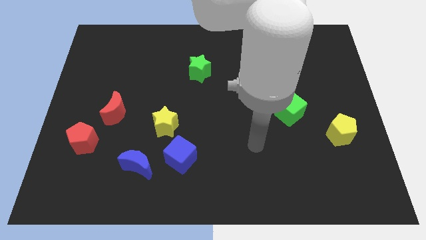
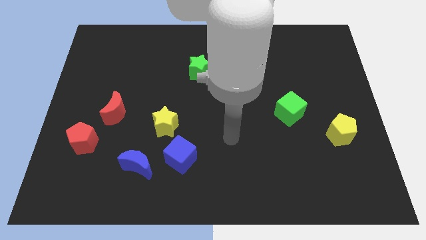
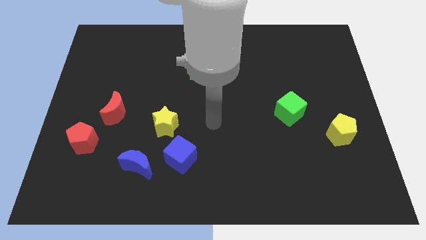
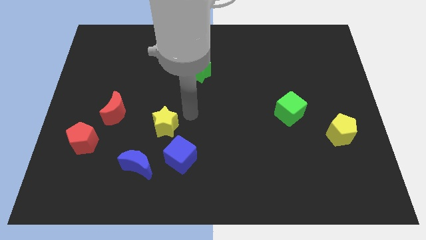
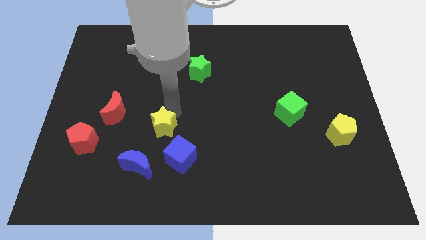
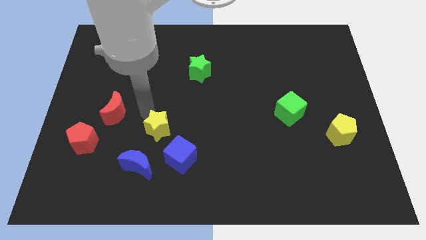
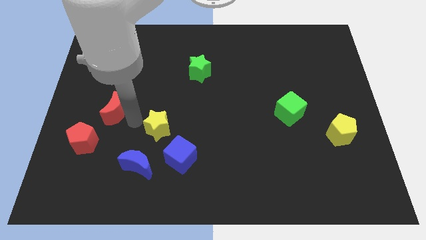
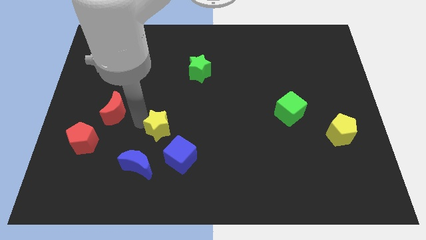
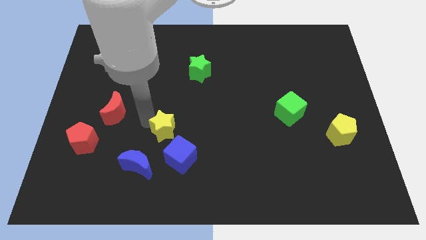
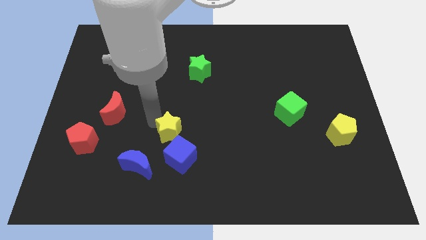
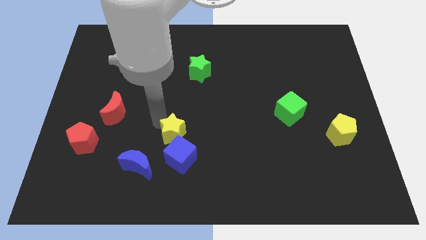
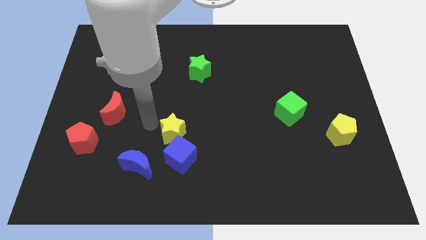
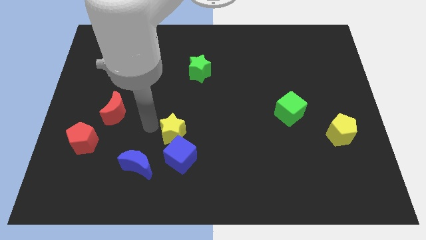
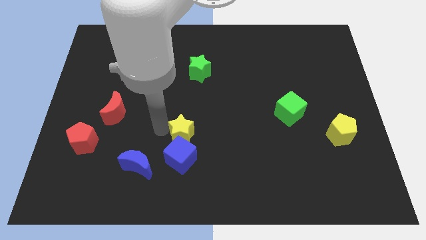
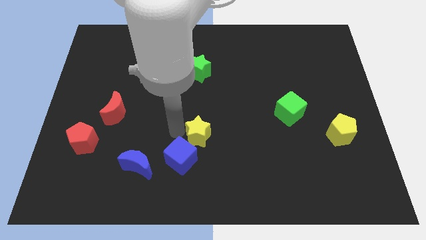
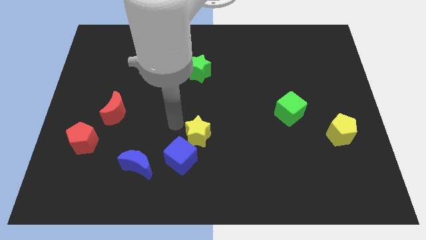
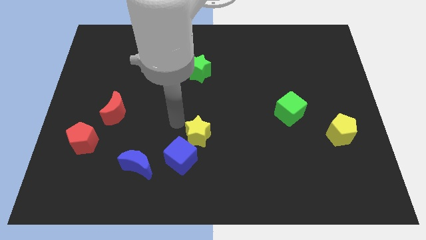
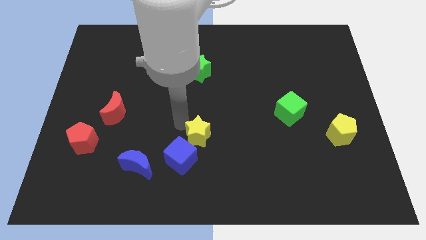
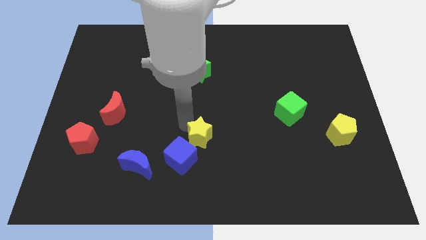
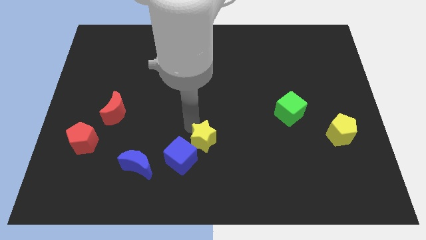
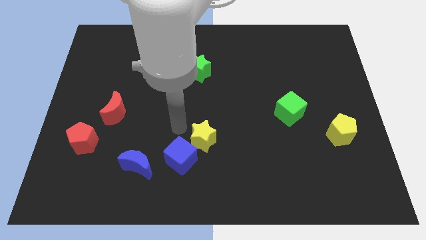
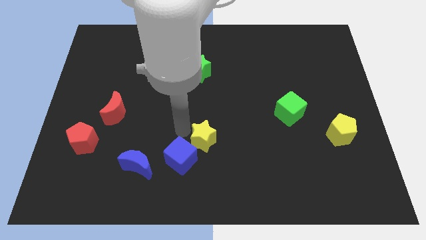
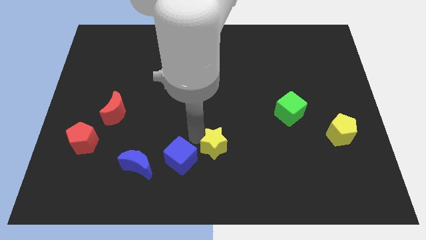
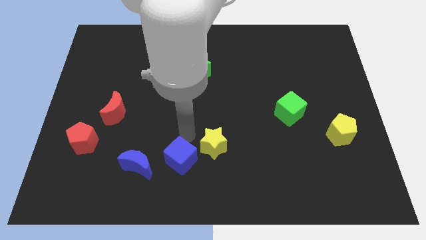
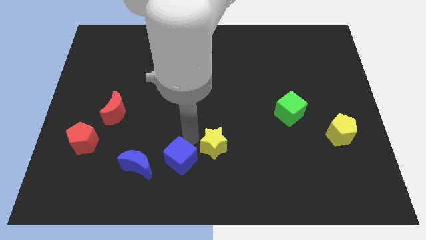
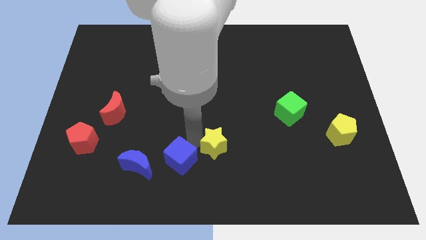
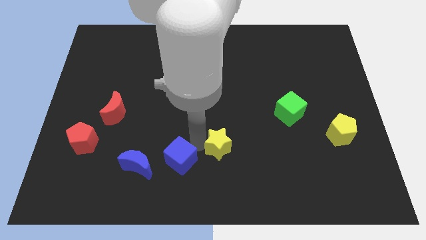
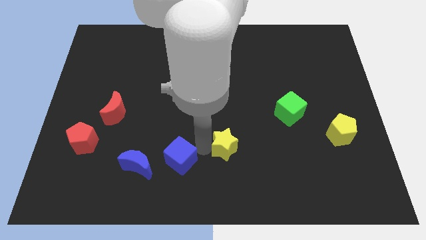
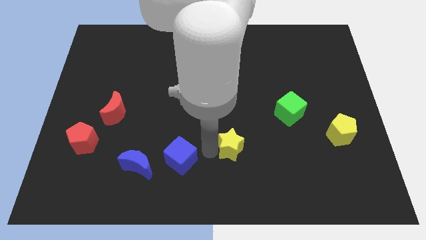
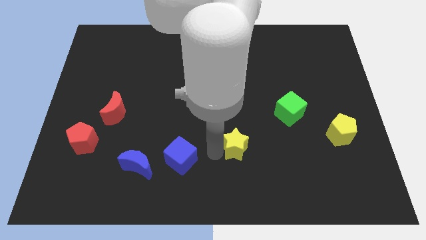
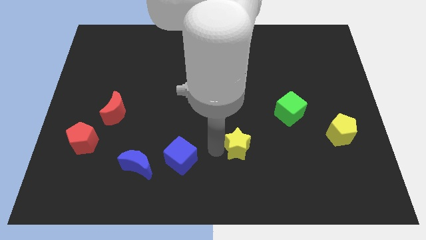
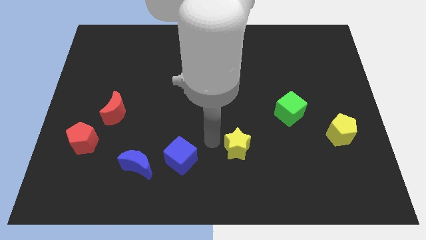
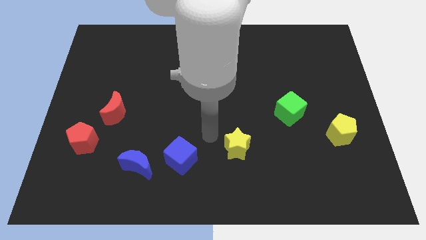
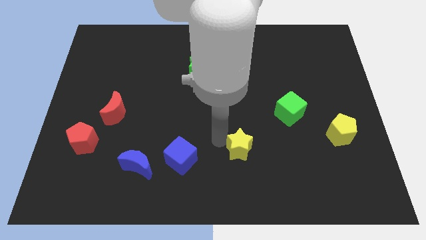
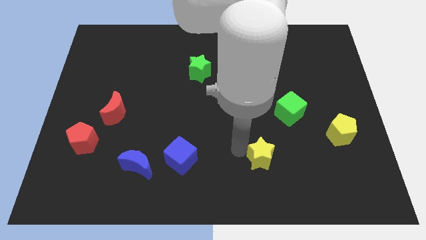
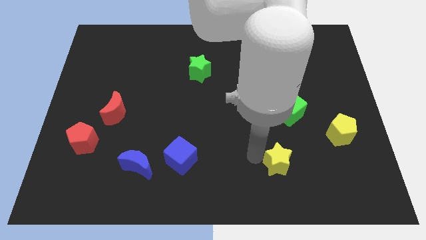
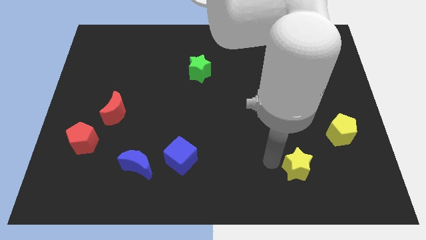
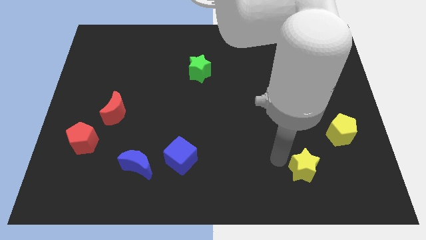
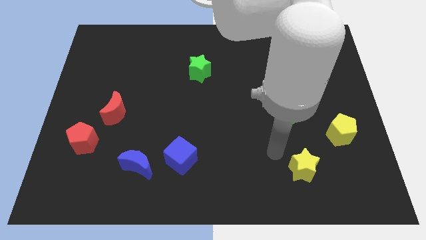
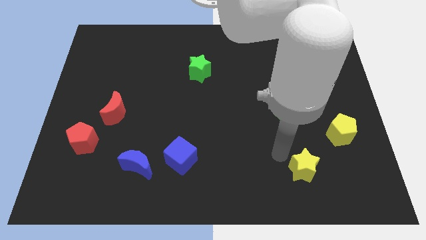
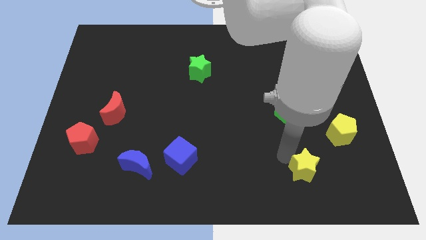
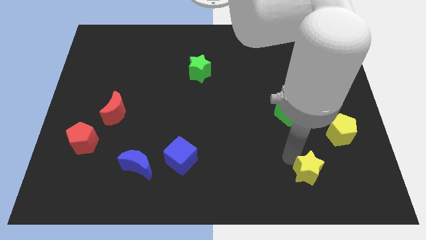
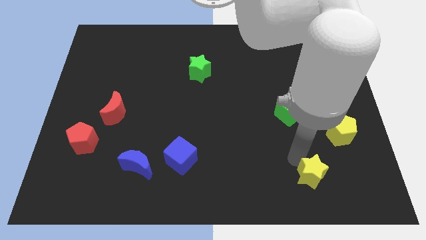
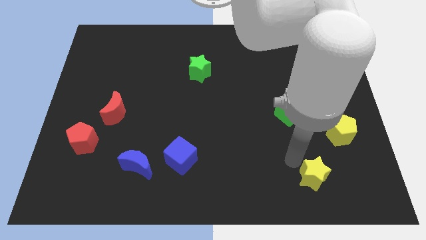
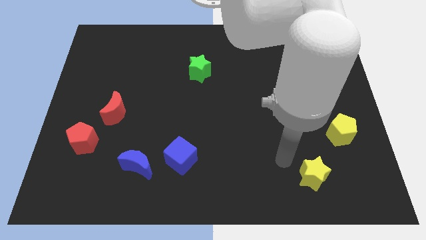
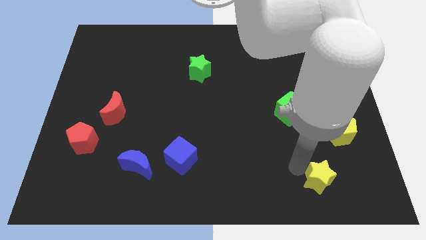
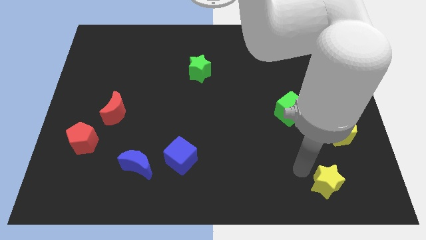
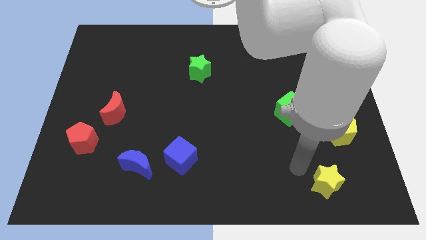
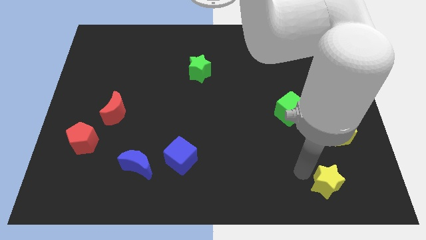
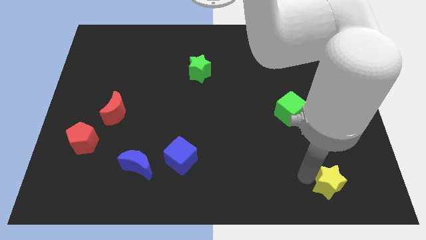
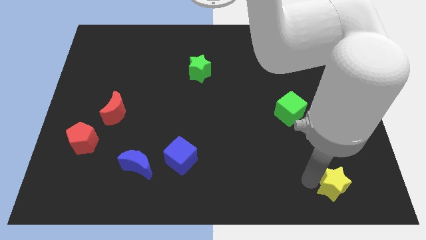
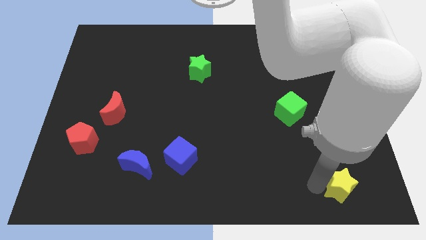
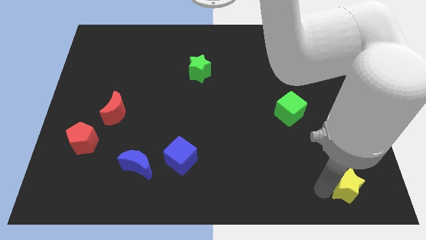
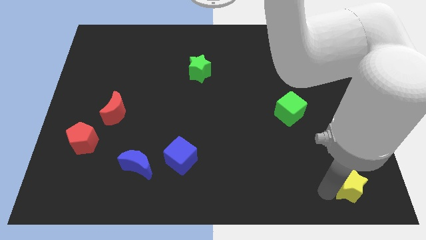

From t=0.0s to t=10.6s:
put the yellow star to the bottom right

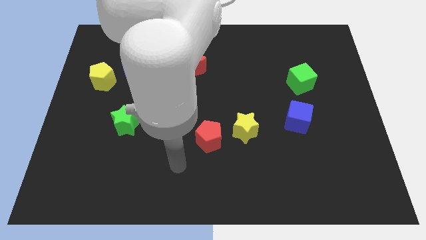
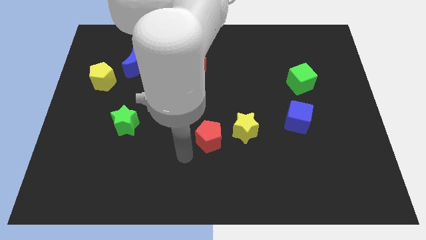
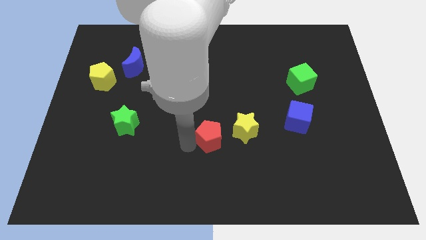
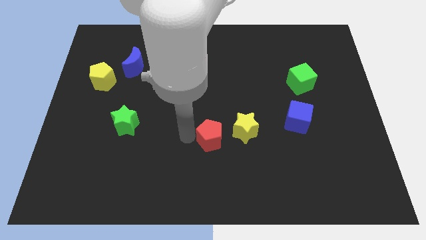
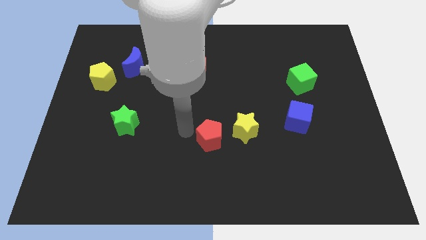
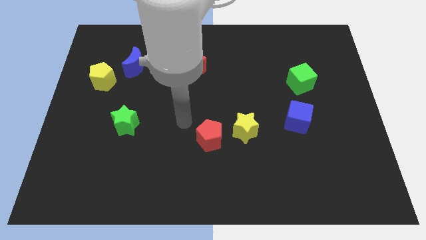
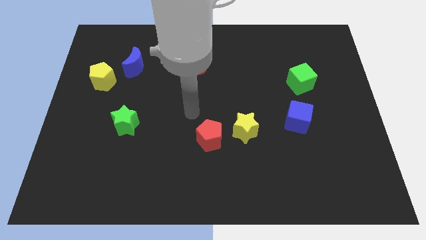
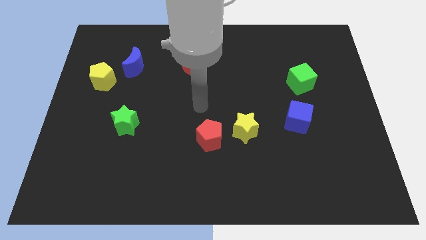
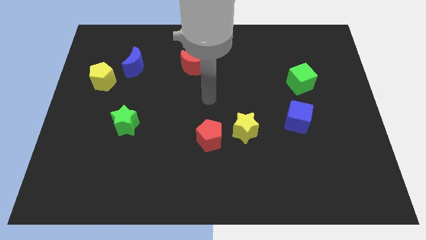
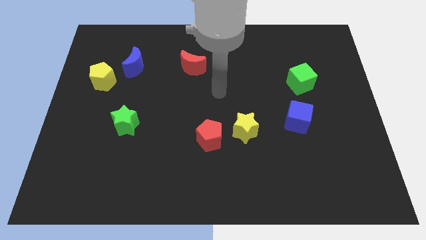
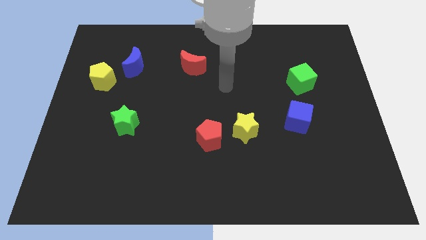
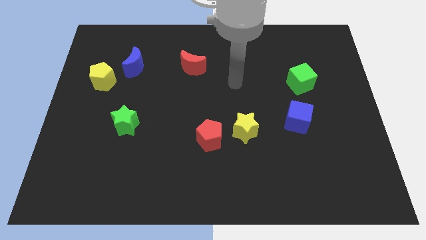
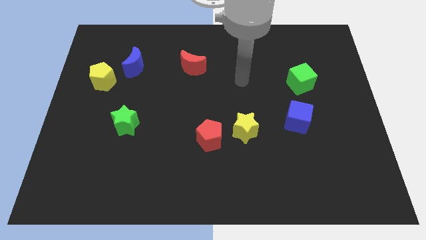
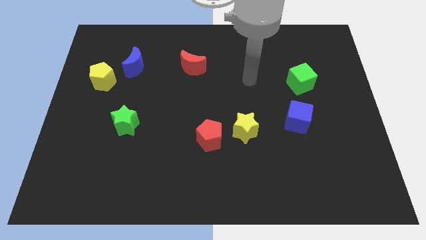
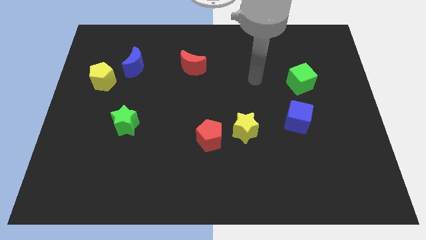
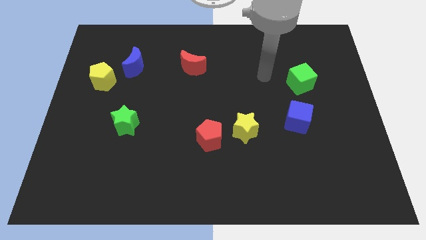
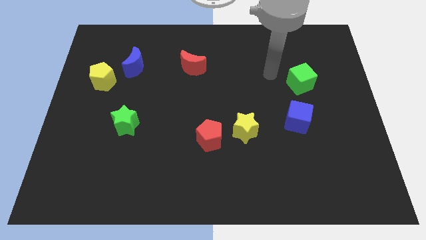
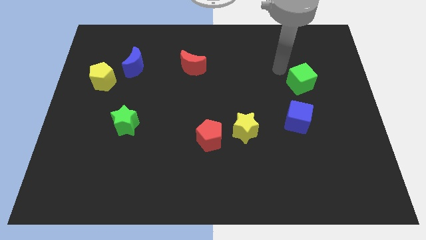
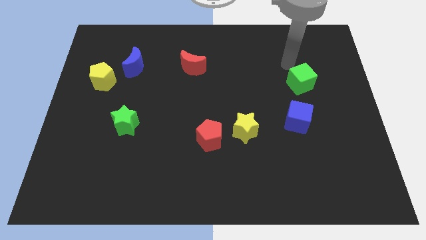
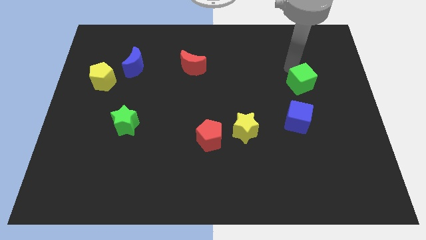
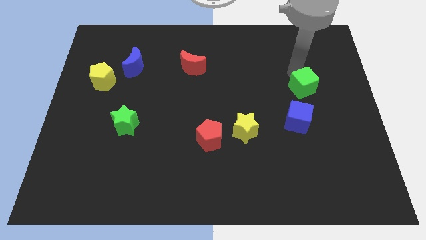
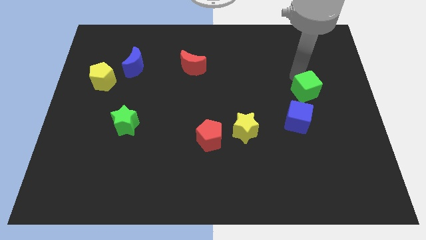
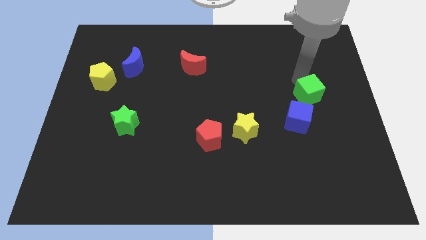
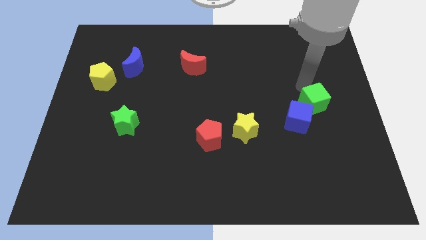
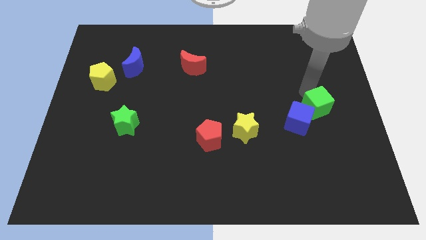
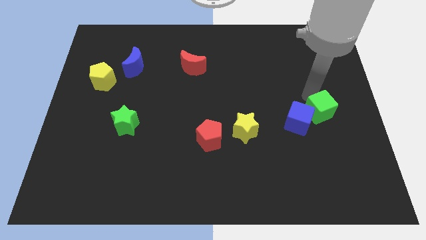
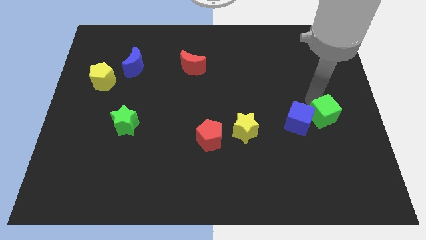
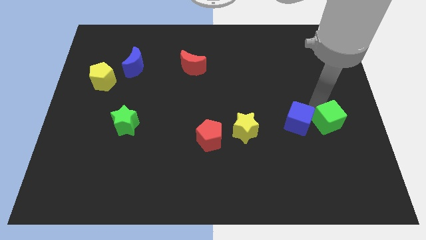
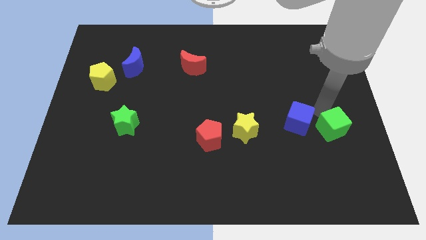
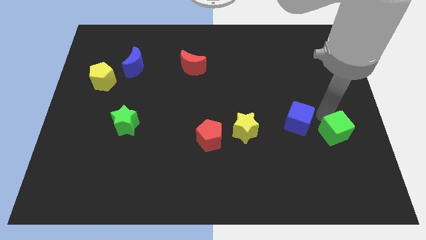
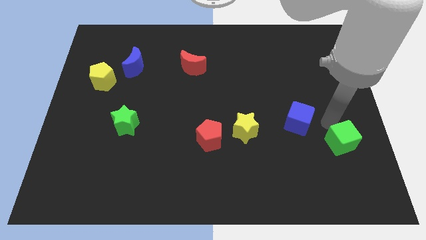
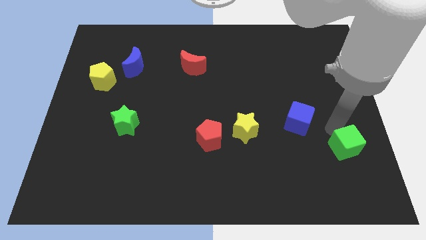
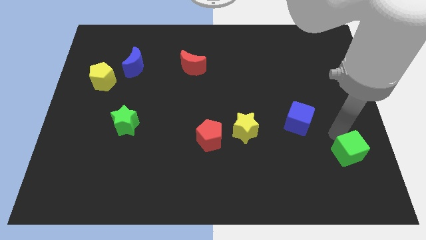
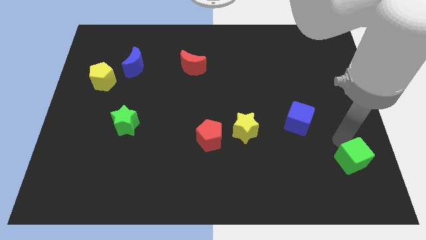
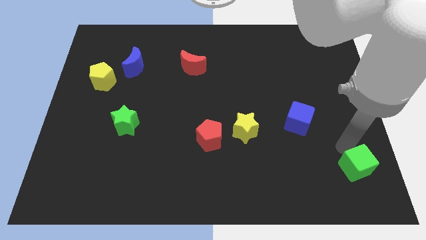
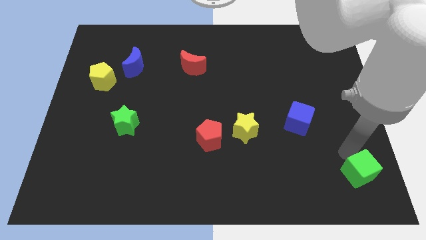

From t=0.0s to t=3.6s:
push the green cube to the lower right corner
